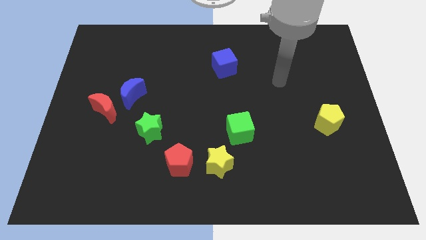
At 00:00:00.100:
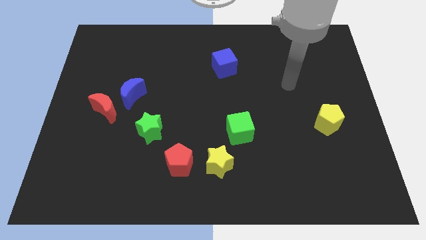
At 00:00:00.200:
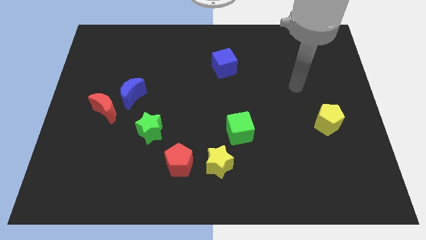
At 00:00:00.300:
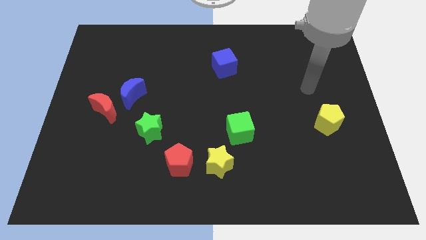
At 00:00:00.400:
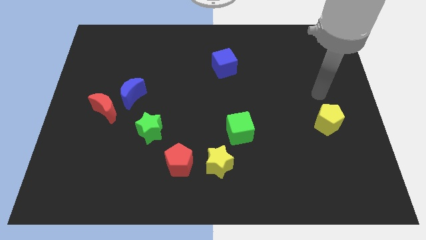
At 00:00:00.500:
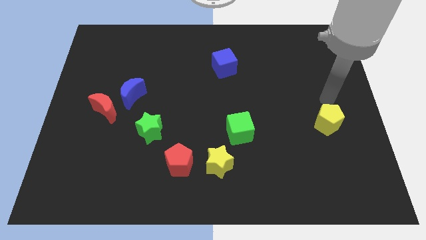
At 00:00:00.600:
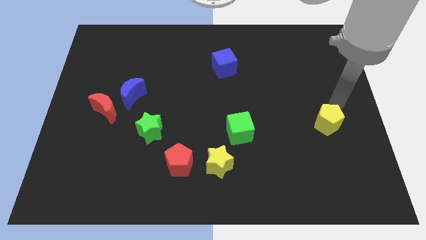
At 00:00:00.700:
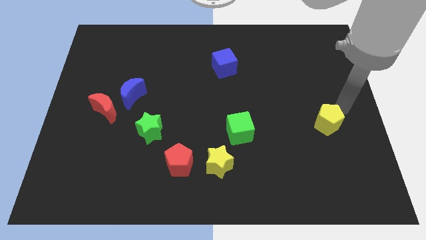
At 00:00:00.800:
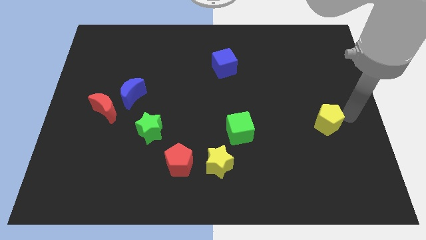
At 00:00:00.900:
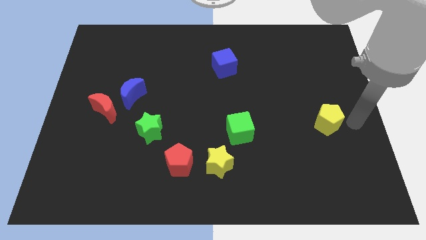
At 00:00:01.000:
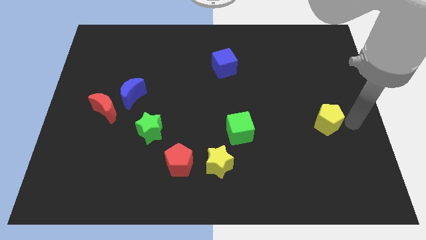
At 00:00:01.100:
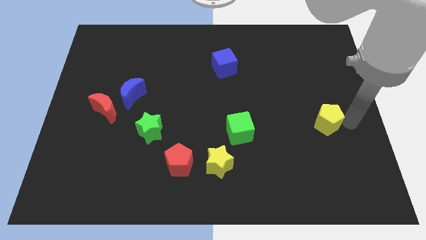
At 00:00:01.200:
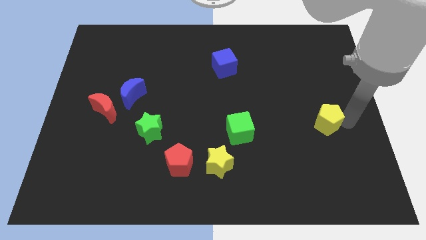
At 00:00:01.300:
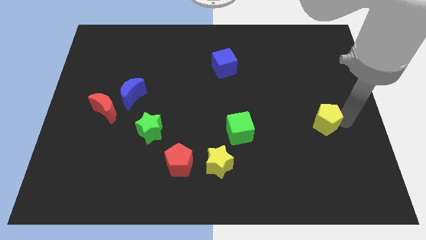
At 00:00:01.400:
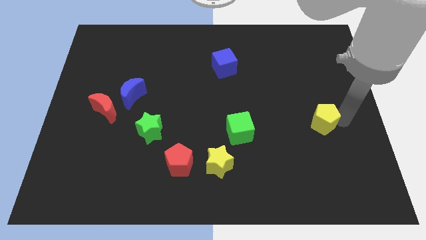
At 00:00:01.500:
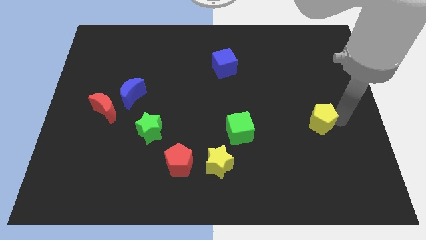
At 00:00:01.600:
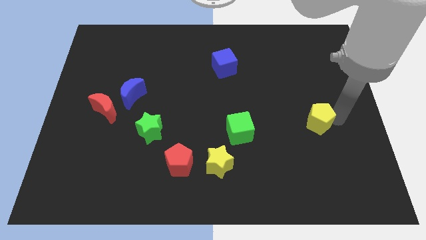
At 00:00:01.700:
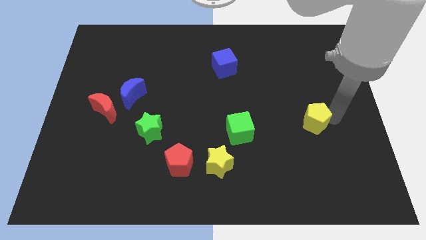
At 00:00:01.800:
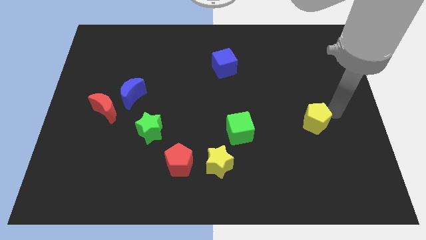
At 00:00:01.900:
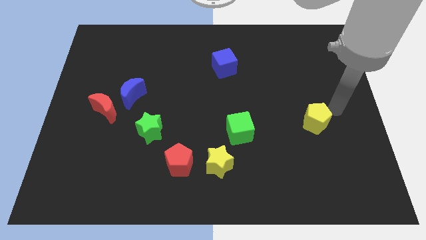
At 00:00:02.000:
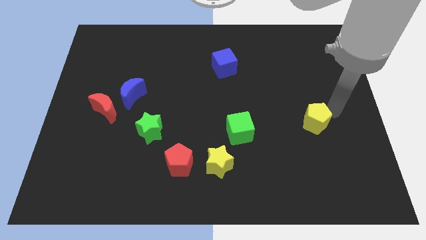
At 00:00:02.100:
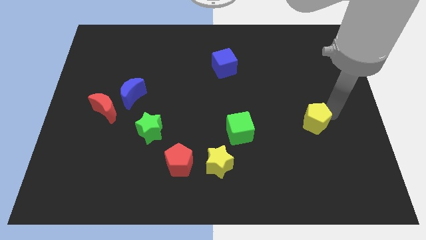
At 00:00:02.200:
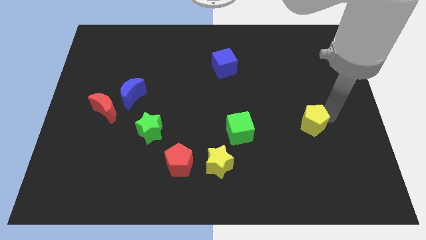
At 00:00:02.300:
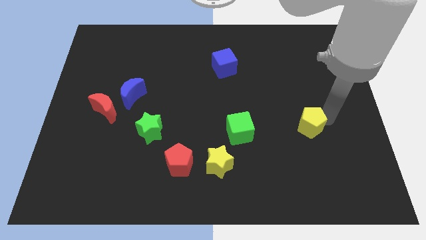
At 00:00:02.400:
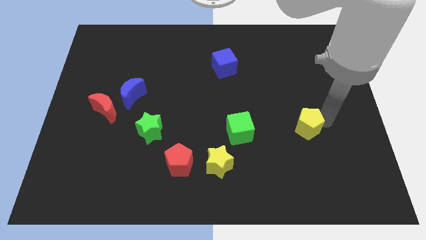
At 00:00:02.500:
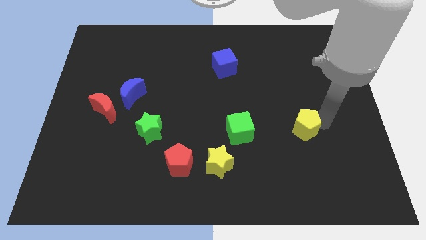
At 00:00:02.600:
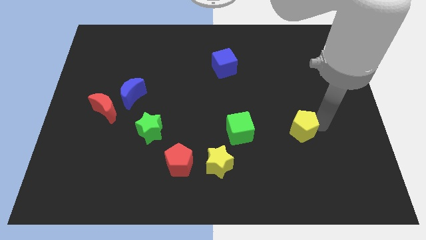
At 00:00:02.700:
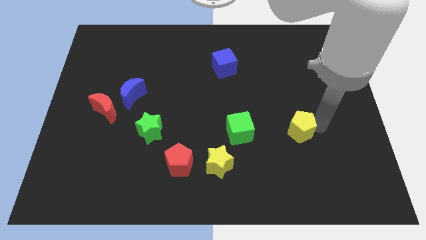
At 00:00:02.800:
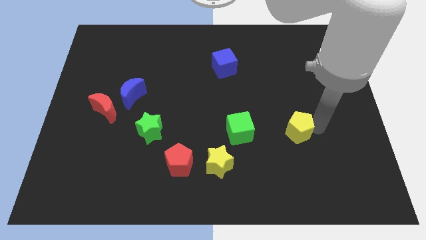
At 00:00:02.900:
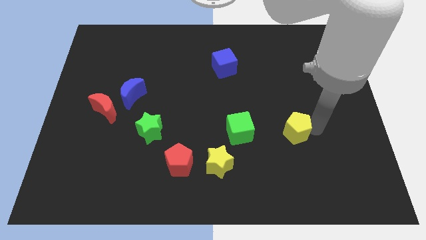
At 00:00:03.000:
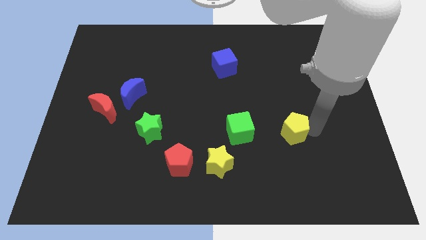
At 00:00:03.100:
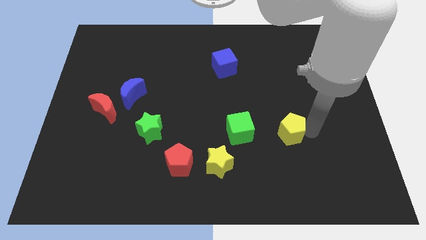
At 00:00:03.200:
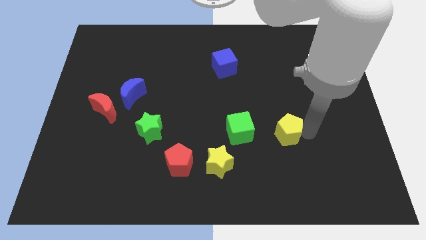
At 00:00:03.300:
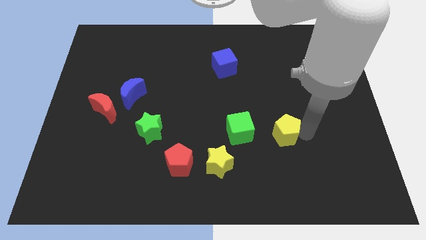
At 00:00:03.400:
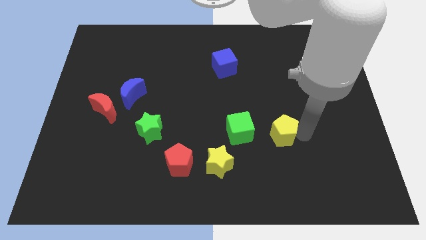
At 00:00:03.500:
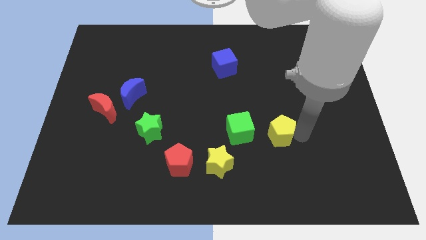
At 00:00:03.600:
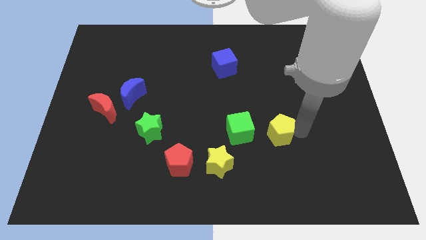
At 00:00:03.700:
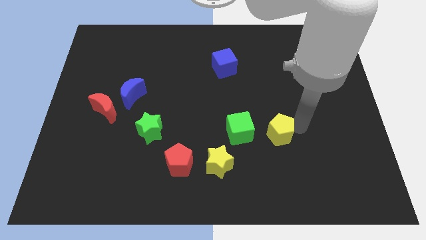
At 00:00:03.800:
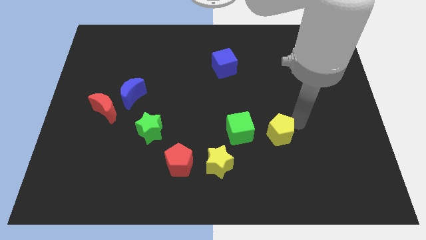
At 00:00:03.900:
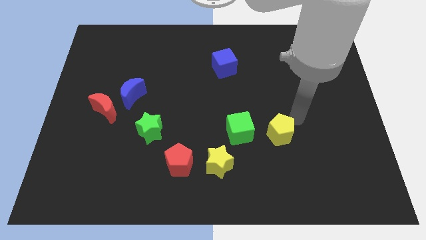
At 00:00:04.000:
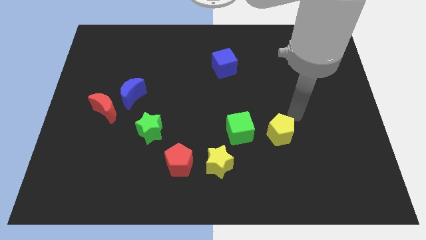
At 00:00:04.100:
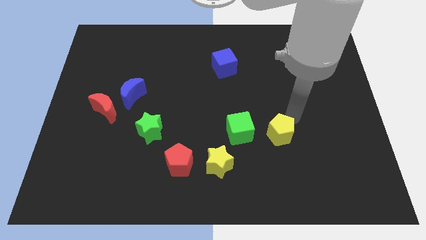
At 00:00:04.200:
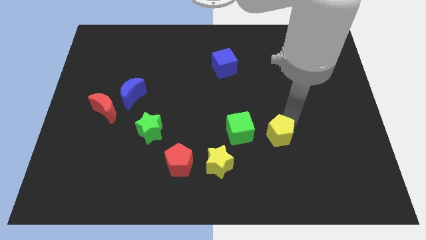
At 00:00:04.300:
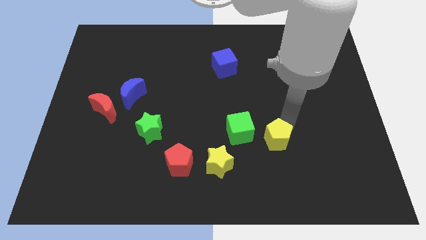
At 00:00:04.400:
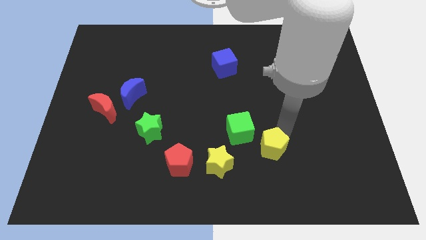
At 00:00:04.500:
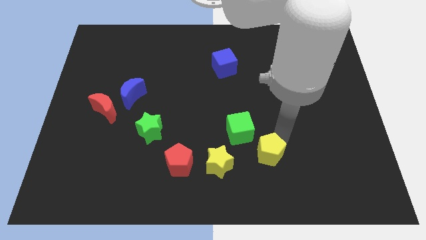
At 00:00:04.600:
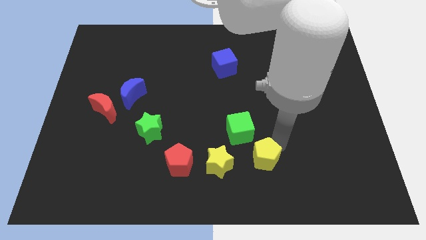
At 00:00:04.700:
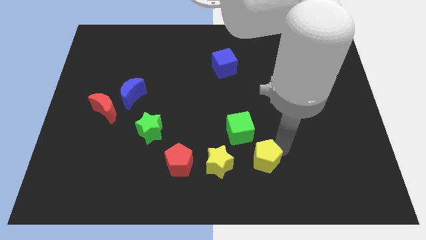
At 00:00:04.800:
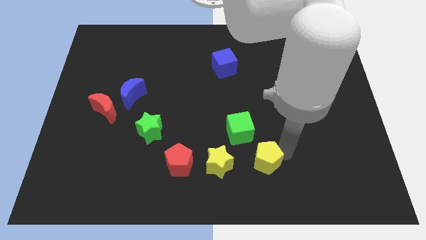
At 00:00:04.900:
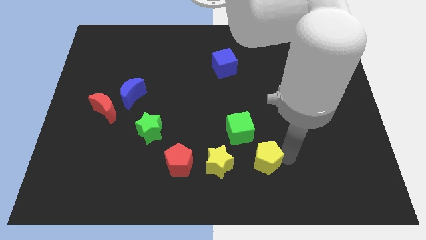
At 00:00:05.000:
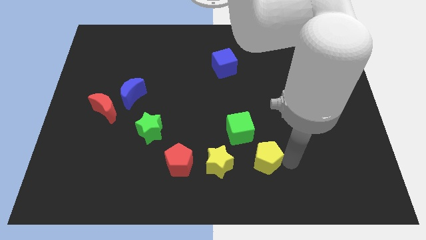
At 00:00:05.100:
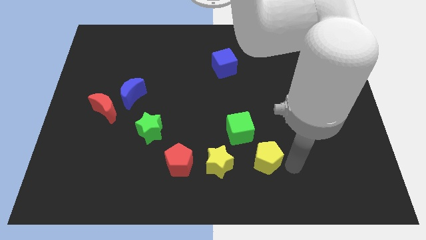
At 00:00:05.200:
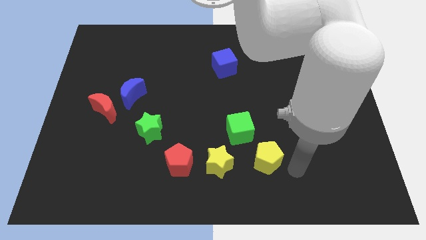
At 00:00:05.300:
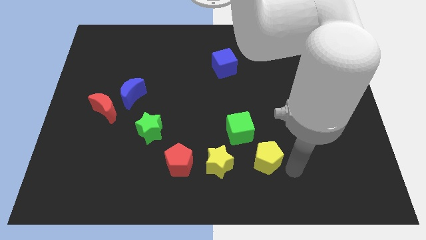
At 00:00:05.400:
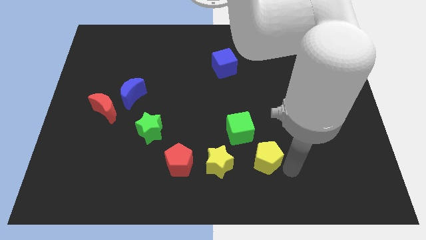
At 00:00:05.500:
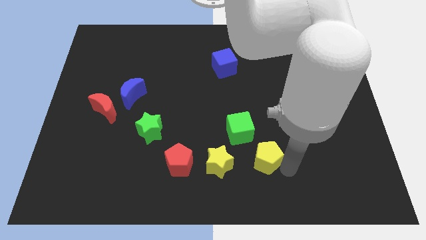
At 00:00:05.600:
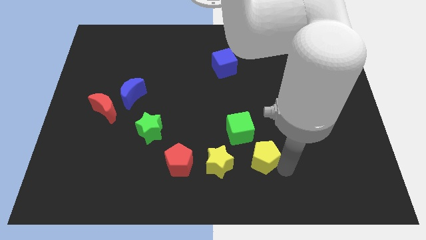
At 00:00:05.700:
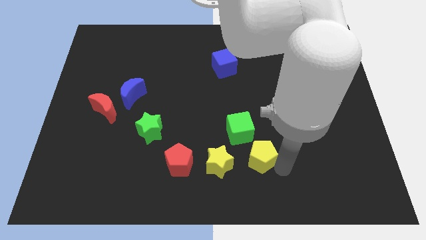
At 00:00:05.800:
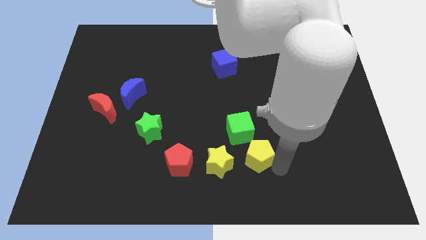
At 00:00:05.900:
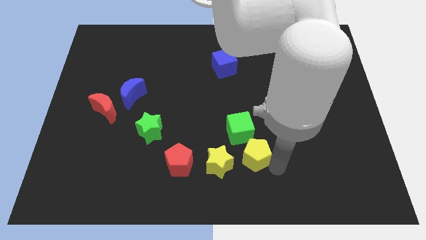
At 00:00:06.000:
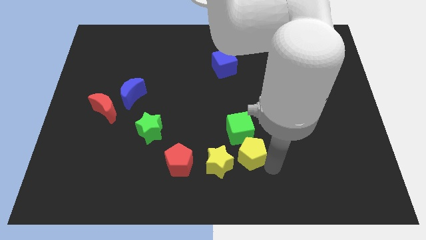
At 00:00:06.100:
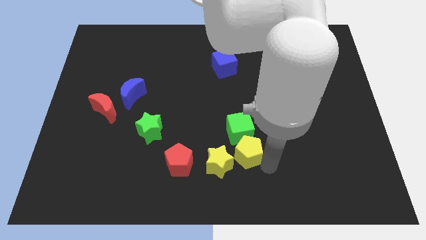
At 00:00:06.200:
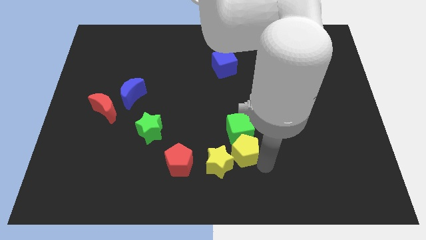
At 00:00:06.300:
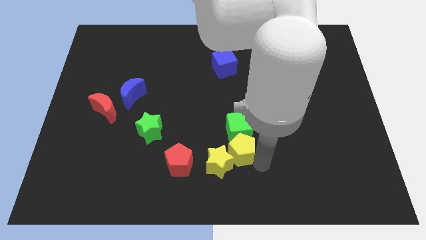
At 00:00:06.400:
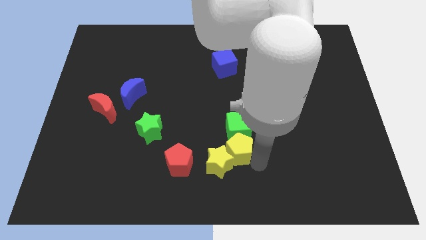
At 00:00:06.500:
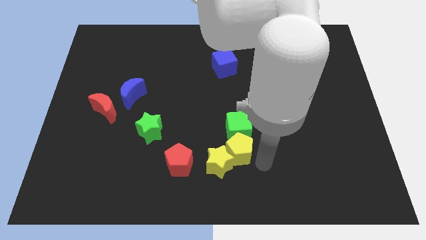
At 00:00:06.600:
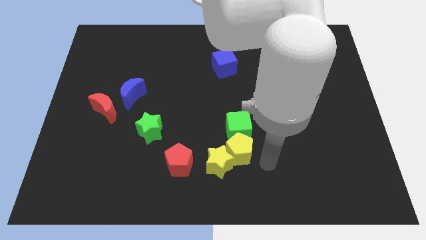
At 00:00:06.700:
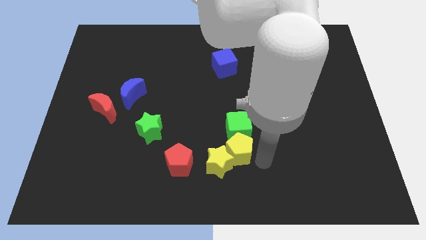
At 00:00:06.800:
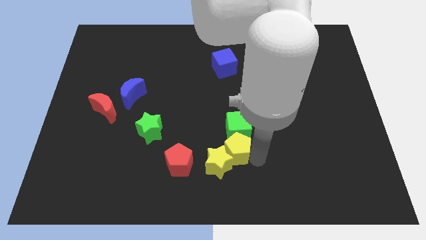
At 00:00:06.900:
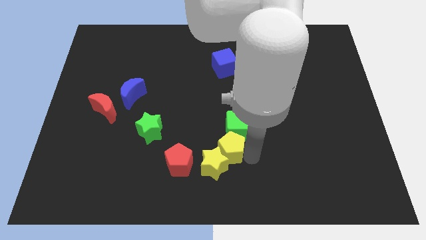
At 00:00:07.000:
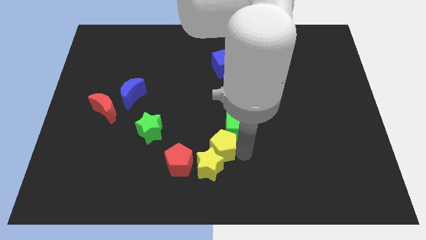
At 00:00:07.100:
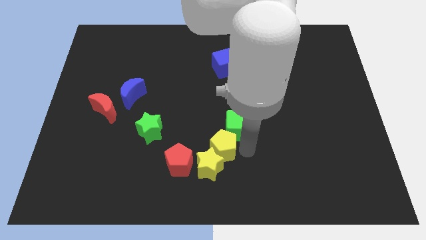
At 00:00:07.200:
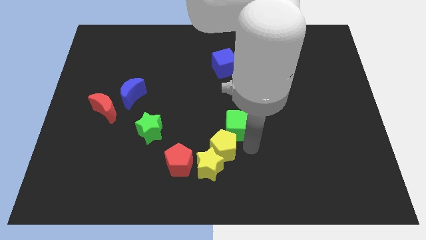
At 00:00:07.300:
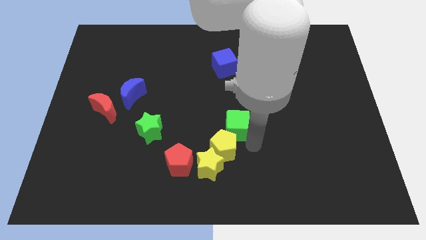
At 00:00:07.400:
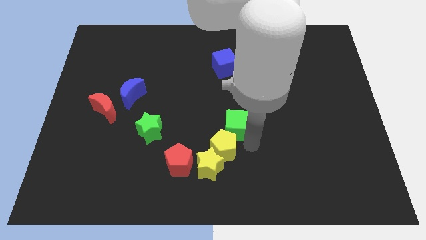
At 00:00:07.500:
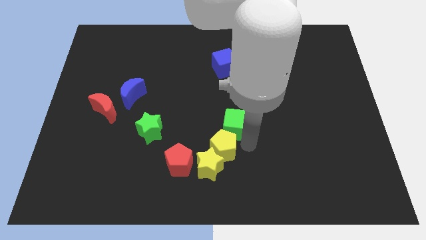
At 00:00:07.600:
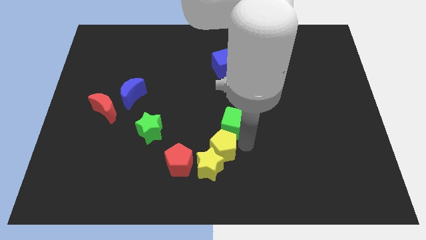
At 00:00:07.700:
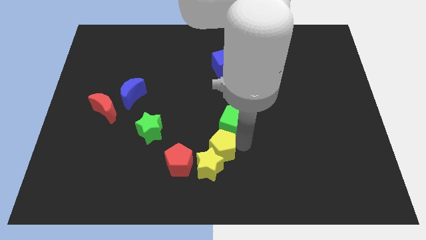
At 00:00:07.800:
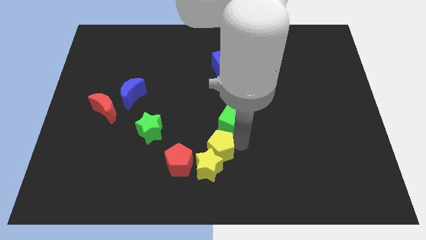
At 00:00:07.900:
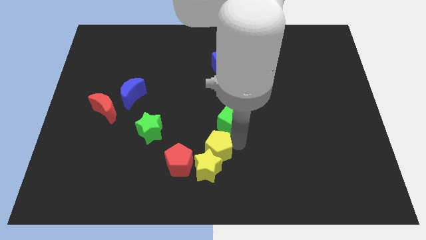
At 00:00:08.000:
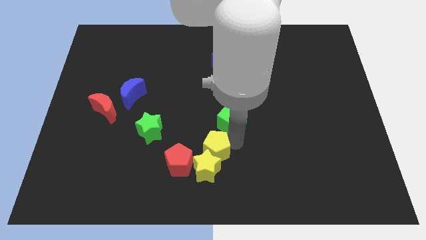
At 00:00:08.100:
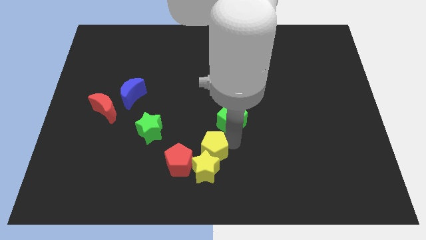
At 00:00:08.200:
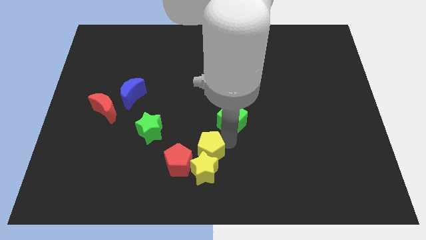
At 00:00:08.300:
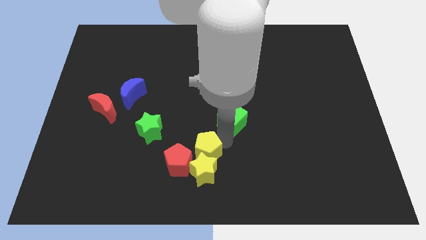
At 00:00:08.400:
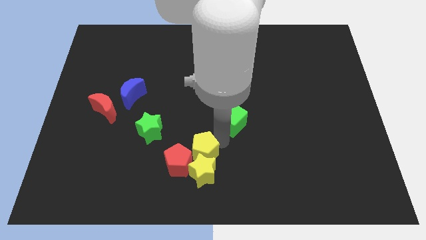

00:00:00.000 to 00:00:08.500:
push the yellow pentagon next to the red pentagon
